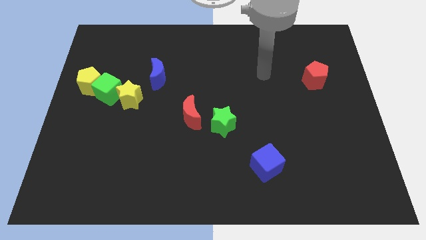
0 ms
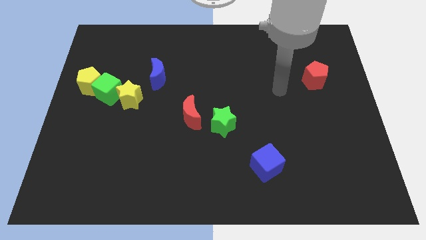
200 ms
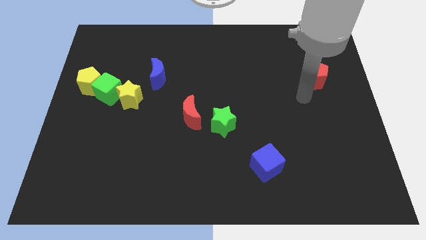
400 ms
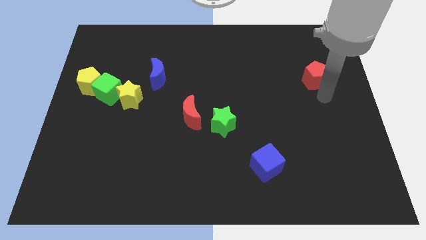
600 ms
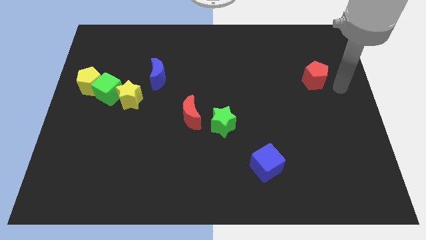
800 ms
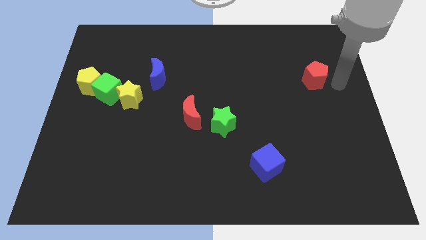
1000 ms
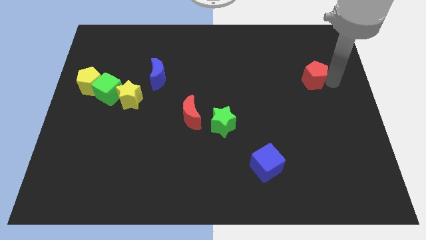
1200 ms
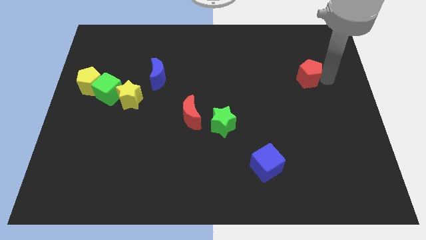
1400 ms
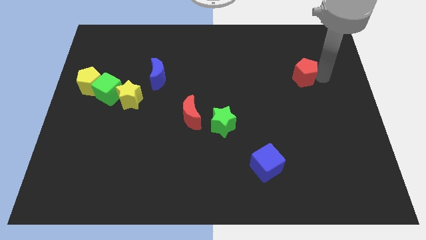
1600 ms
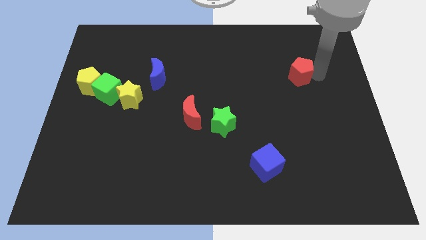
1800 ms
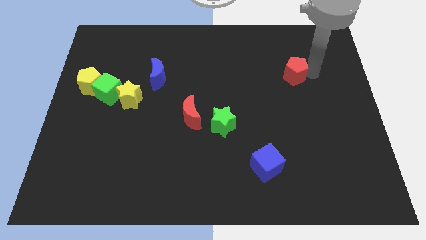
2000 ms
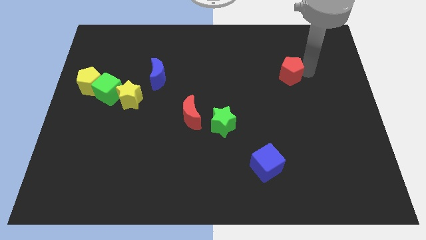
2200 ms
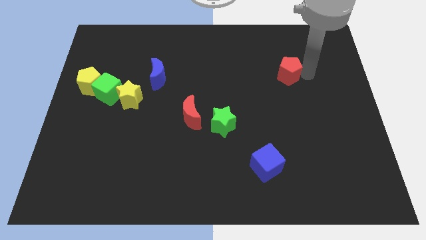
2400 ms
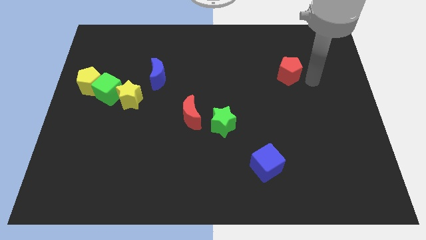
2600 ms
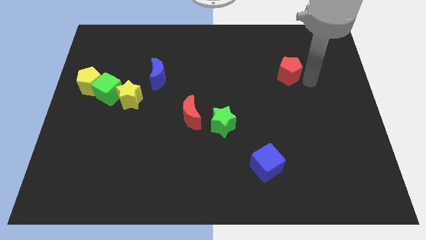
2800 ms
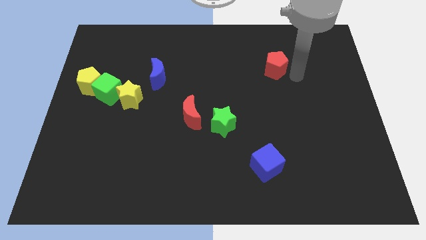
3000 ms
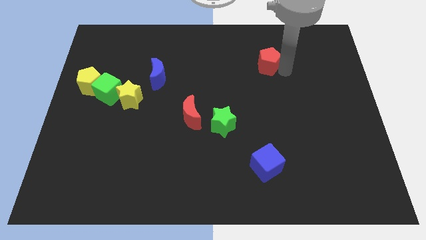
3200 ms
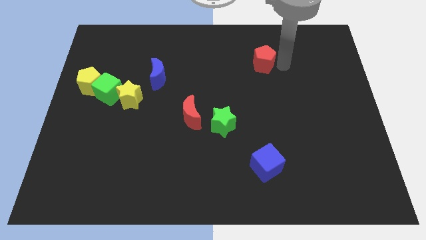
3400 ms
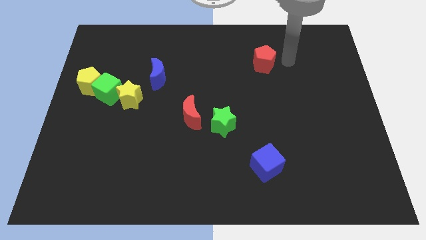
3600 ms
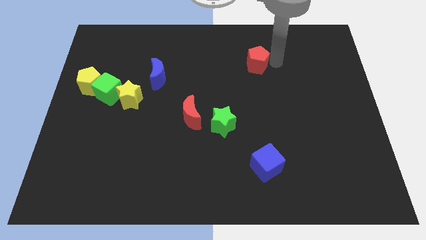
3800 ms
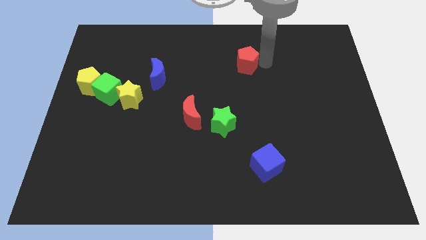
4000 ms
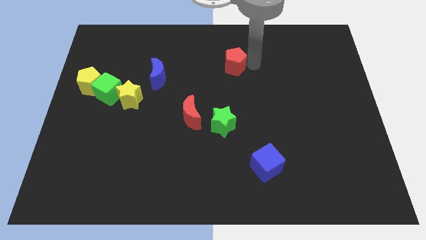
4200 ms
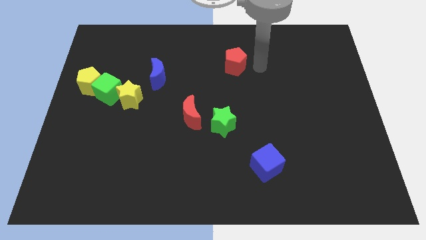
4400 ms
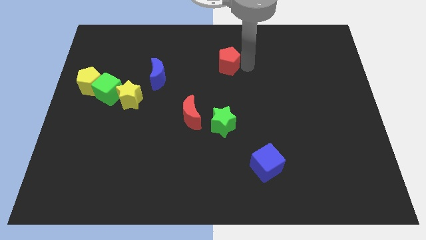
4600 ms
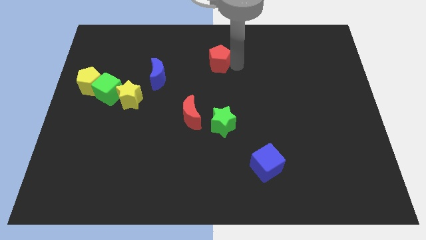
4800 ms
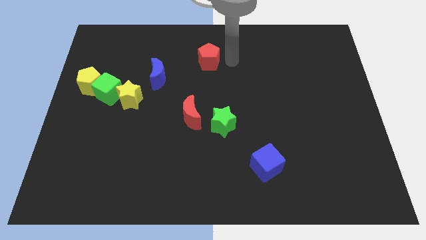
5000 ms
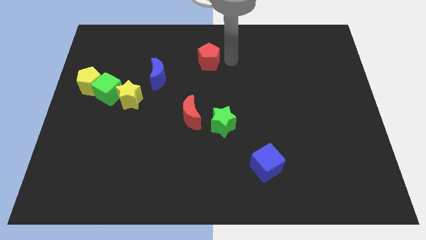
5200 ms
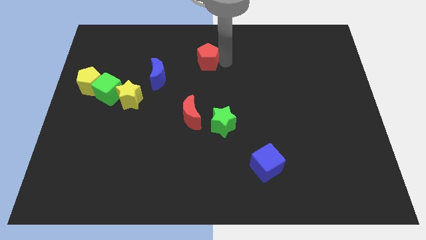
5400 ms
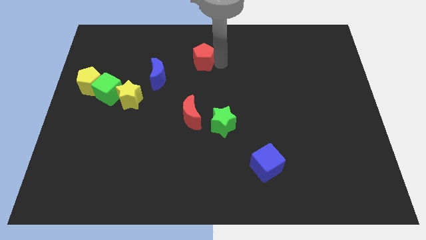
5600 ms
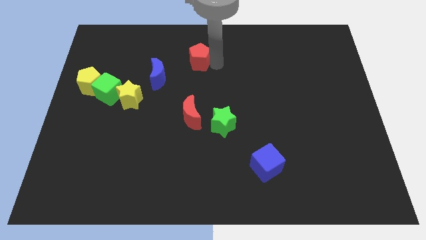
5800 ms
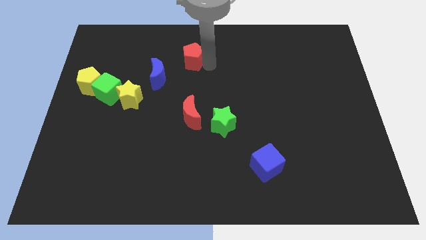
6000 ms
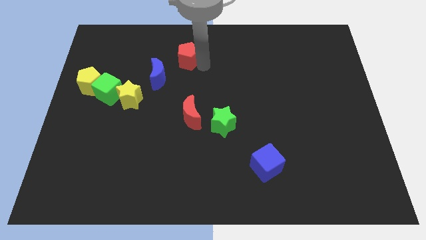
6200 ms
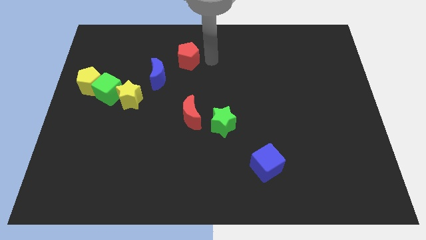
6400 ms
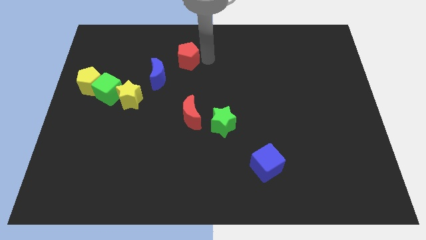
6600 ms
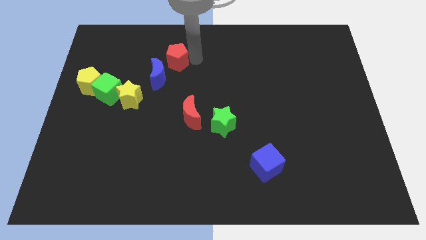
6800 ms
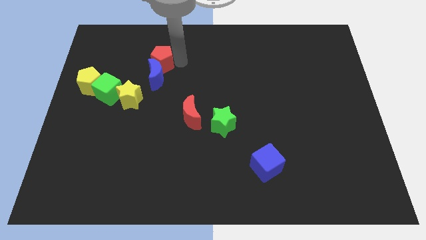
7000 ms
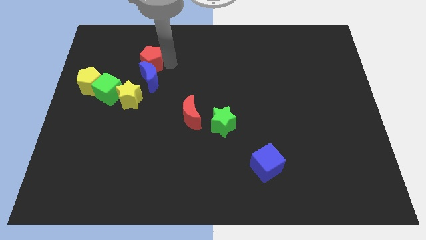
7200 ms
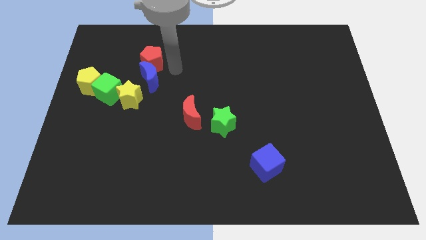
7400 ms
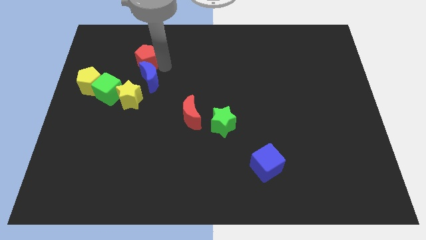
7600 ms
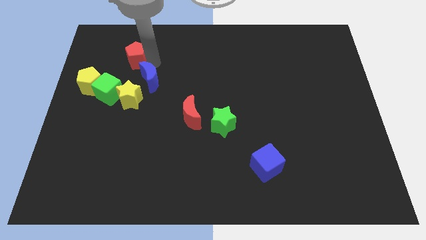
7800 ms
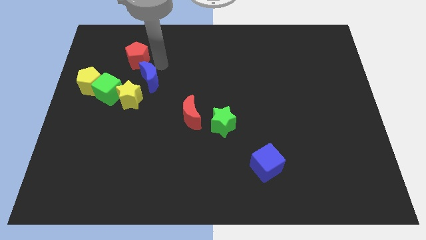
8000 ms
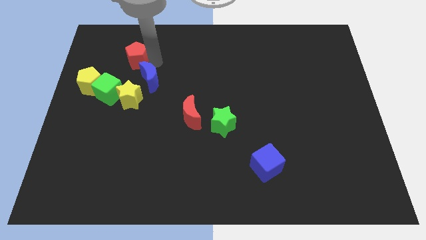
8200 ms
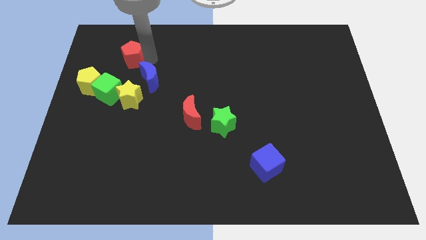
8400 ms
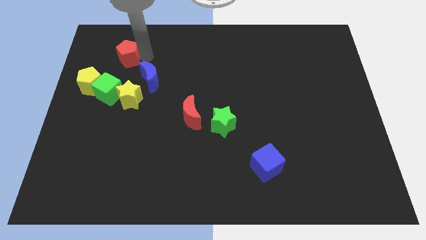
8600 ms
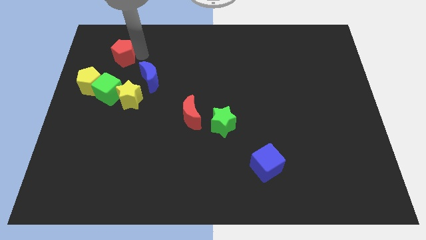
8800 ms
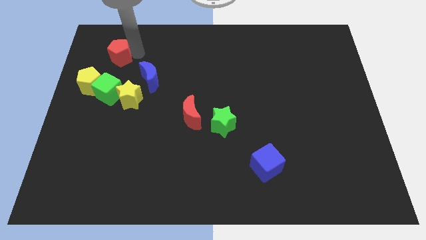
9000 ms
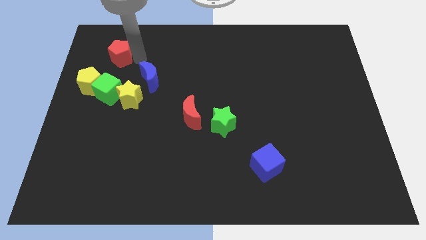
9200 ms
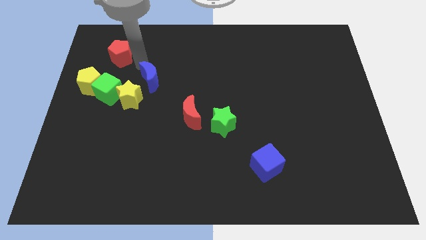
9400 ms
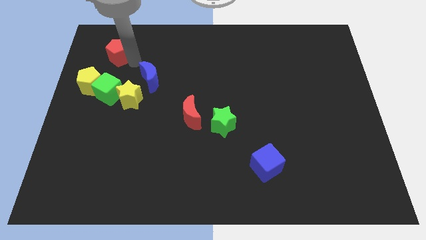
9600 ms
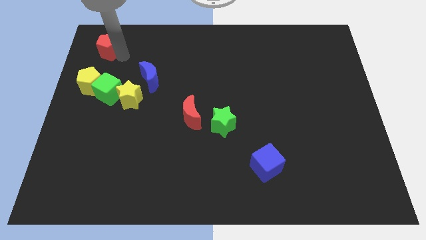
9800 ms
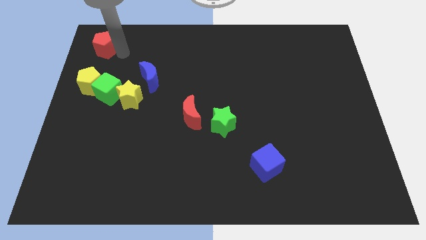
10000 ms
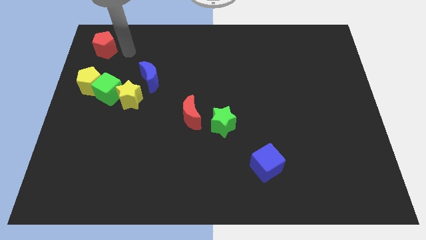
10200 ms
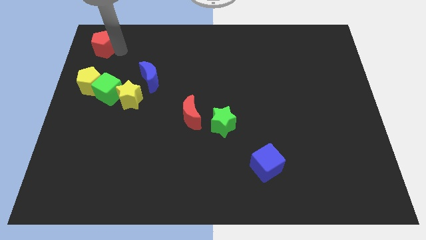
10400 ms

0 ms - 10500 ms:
slide the red pentagon to the upper left corner
